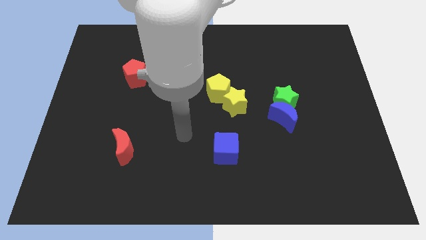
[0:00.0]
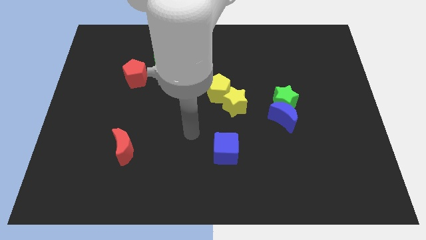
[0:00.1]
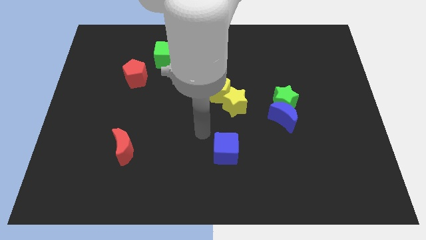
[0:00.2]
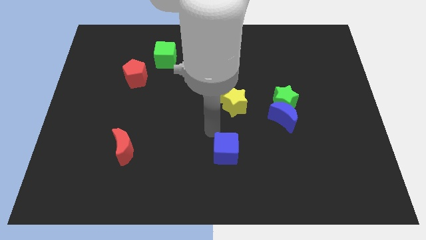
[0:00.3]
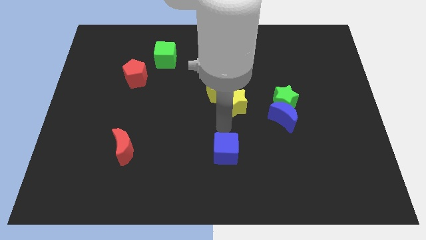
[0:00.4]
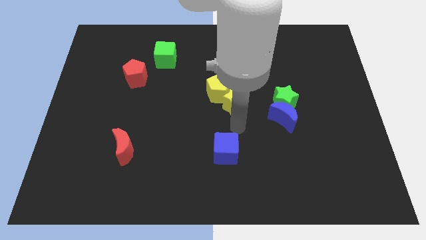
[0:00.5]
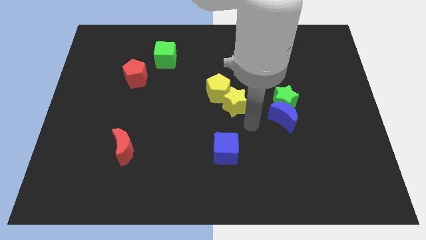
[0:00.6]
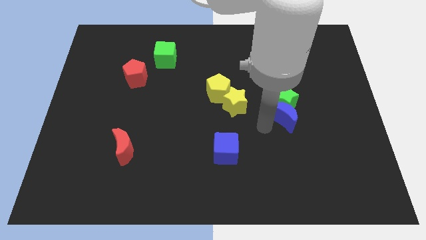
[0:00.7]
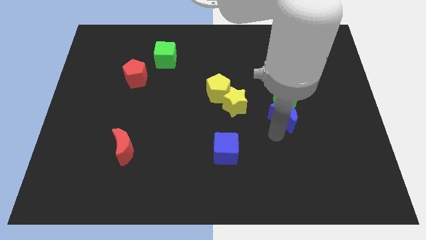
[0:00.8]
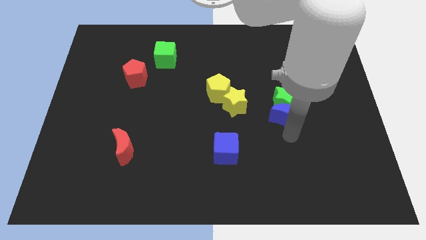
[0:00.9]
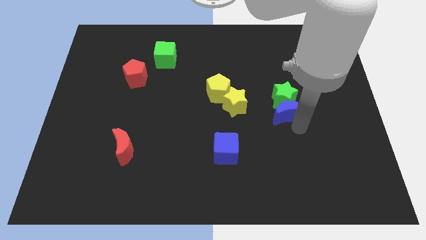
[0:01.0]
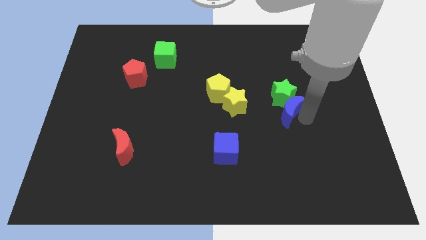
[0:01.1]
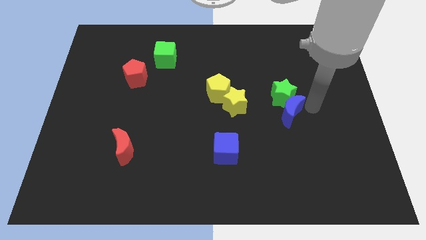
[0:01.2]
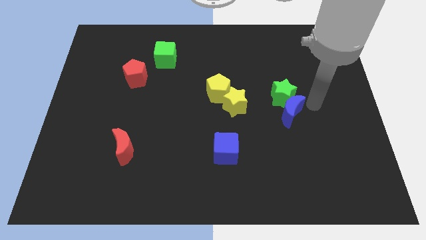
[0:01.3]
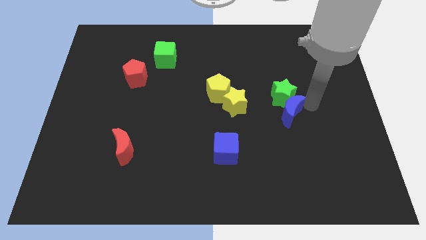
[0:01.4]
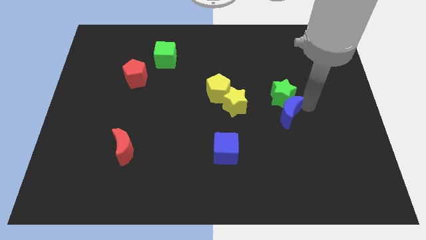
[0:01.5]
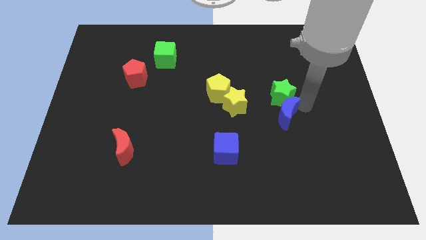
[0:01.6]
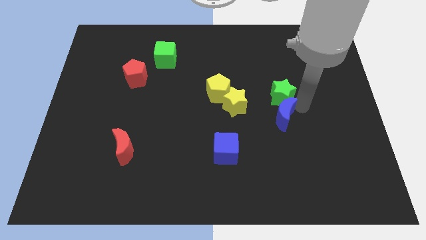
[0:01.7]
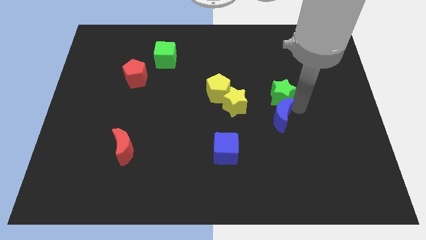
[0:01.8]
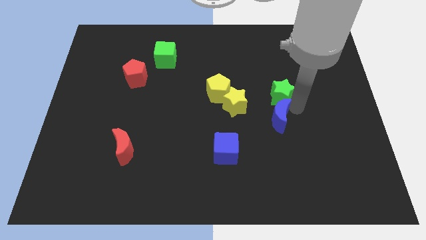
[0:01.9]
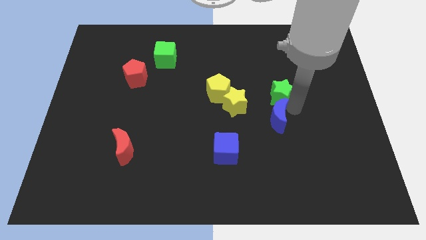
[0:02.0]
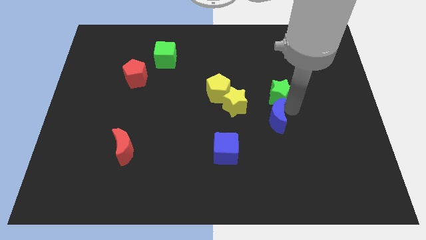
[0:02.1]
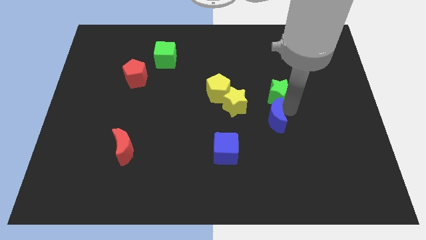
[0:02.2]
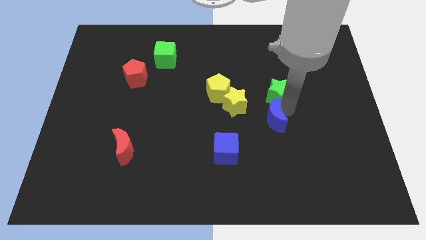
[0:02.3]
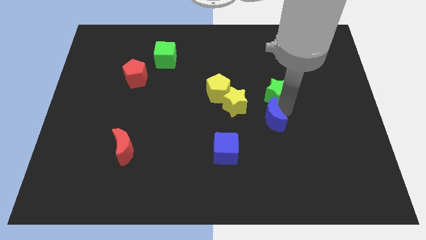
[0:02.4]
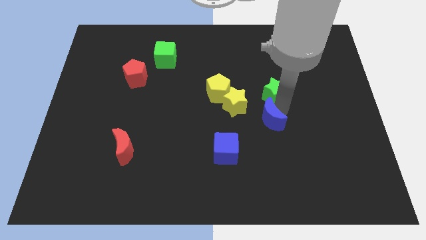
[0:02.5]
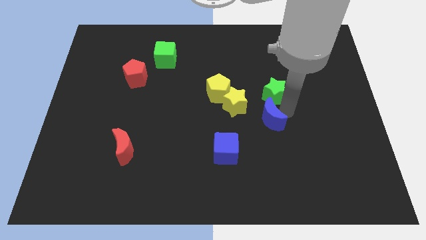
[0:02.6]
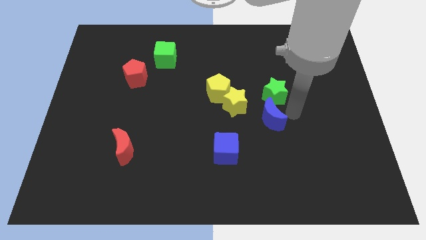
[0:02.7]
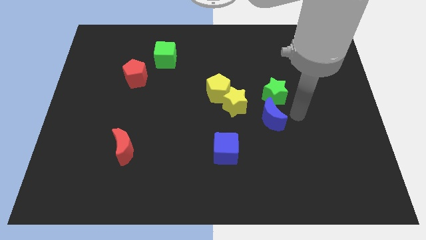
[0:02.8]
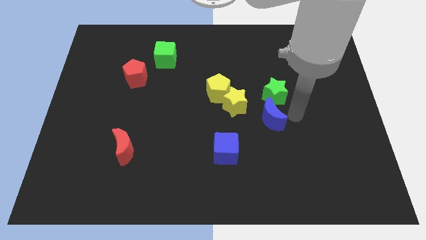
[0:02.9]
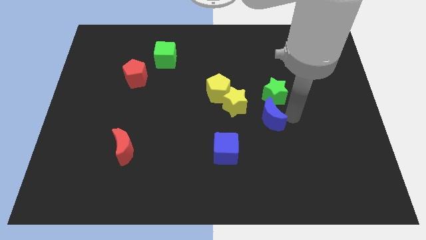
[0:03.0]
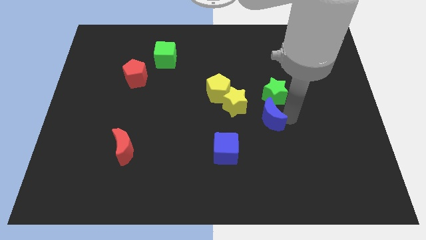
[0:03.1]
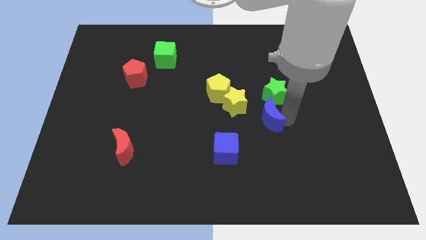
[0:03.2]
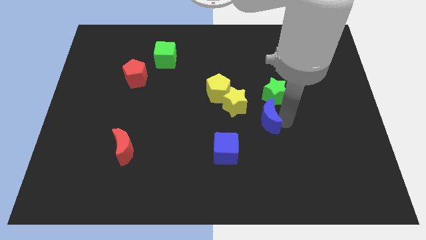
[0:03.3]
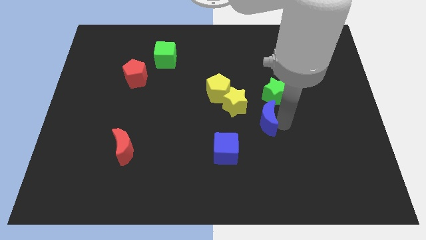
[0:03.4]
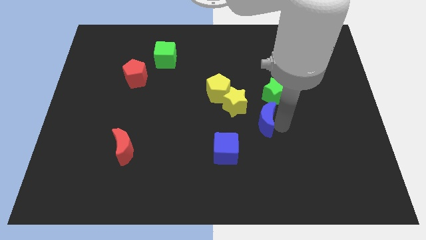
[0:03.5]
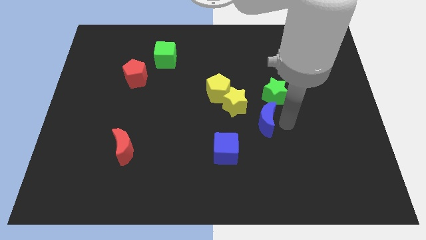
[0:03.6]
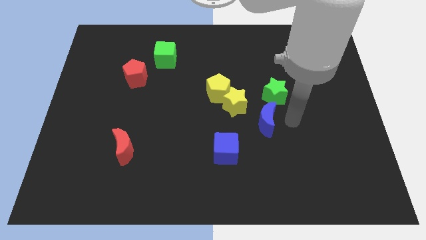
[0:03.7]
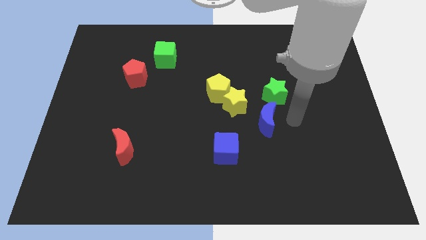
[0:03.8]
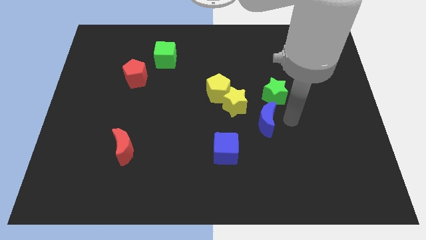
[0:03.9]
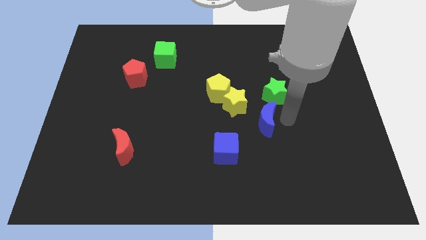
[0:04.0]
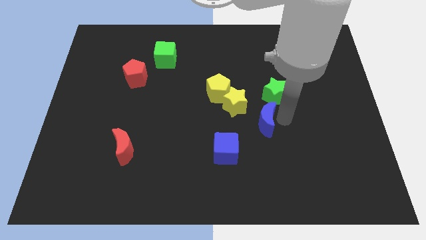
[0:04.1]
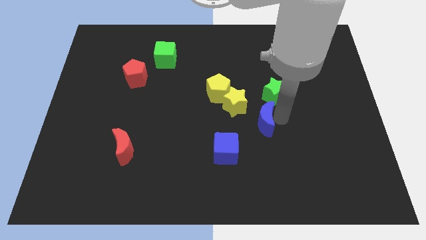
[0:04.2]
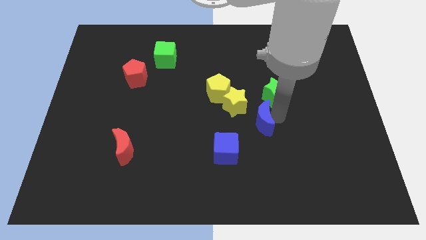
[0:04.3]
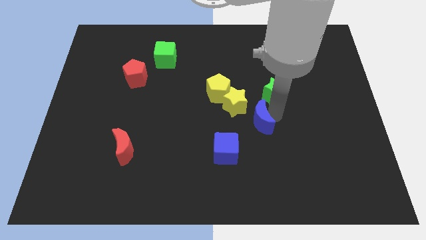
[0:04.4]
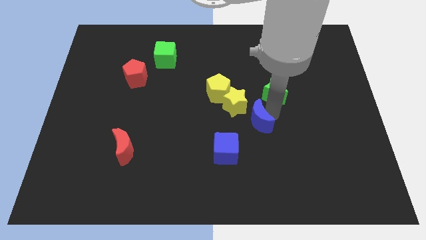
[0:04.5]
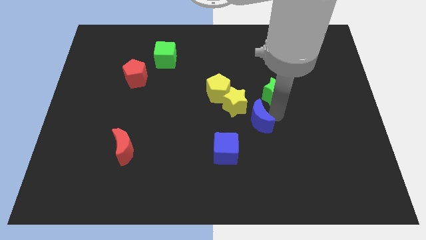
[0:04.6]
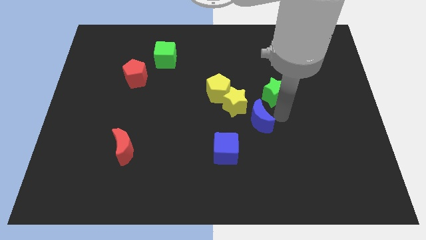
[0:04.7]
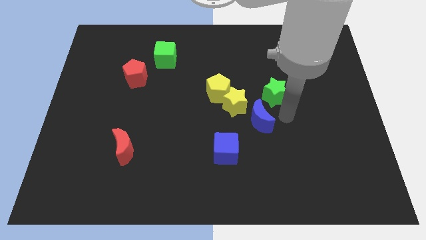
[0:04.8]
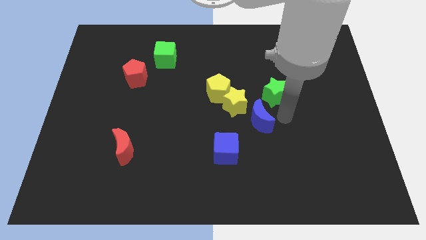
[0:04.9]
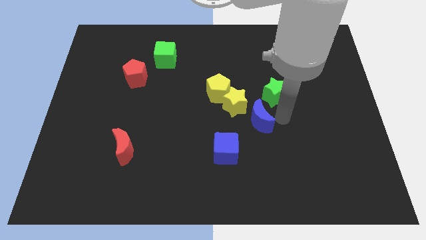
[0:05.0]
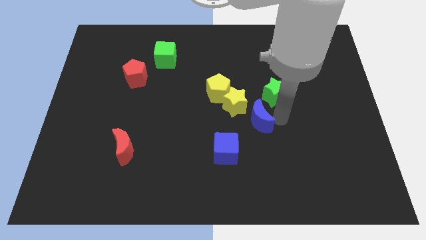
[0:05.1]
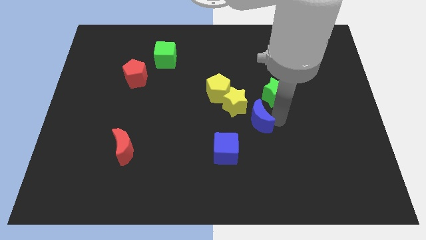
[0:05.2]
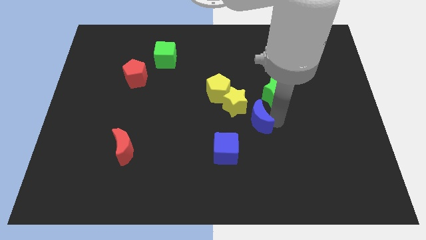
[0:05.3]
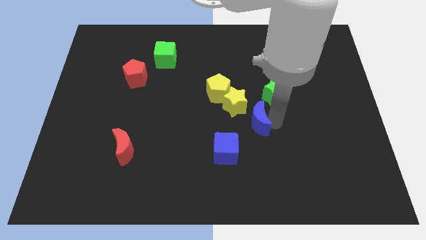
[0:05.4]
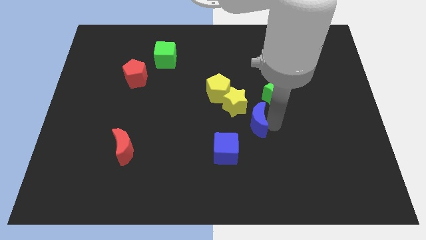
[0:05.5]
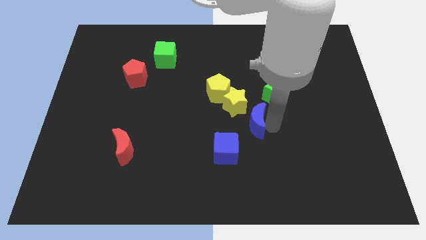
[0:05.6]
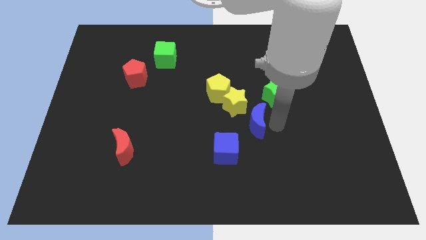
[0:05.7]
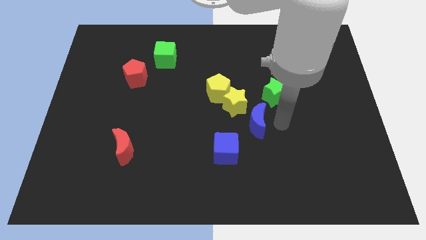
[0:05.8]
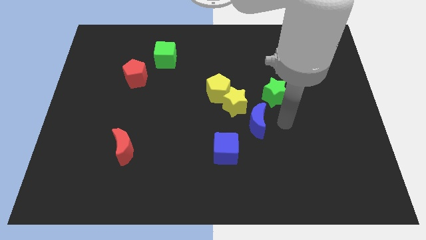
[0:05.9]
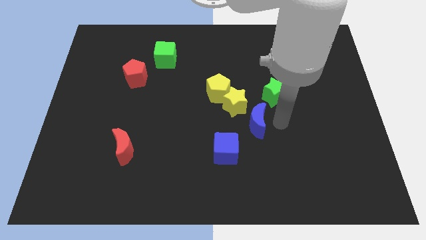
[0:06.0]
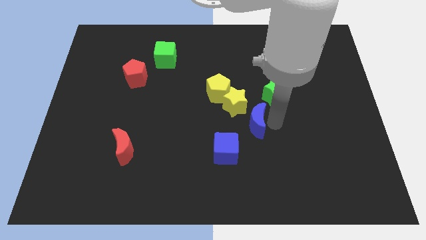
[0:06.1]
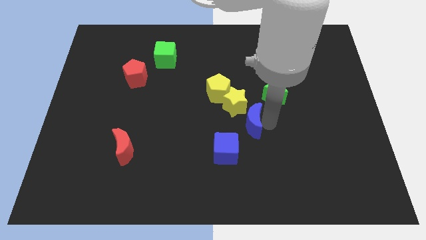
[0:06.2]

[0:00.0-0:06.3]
slightly push the blue moon to the left

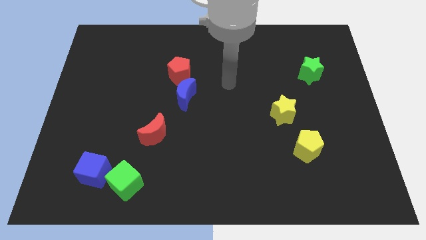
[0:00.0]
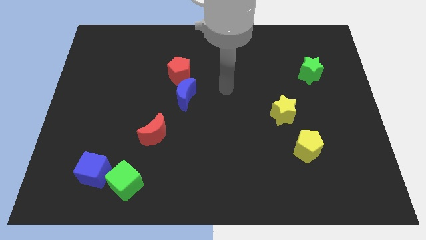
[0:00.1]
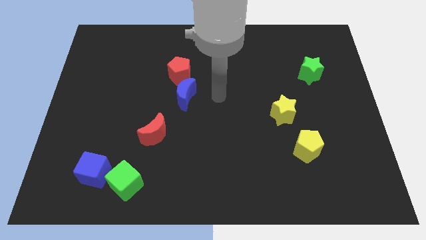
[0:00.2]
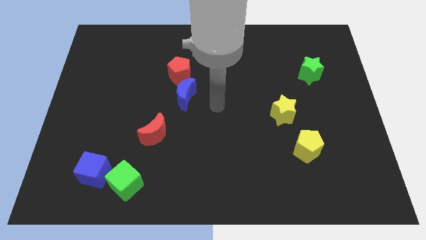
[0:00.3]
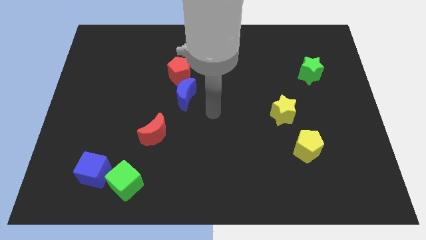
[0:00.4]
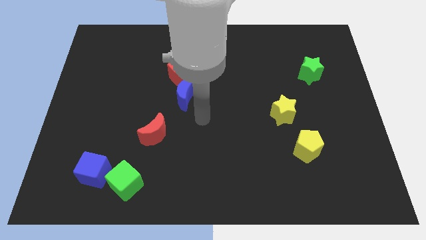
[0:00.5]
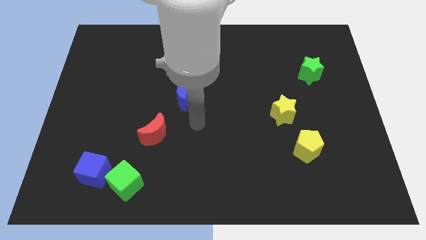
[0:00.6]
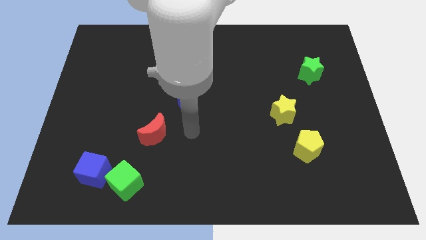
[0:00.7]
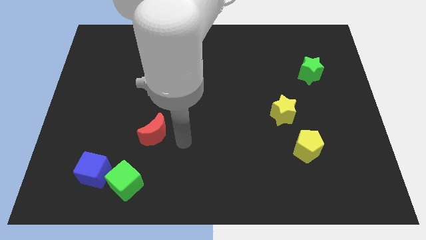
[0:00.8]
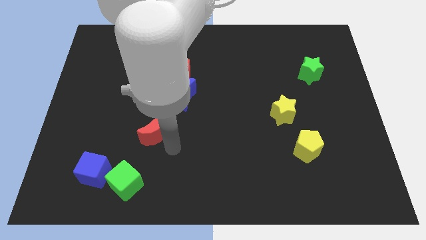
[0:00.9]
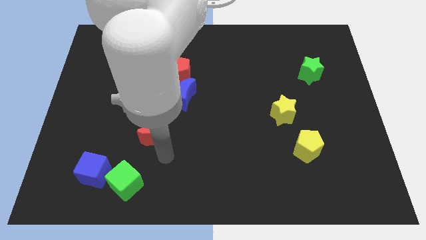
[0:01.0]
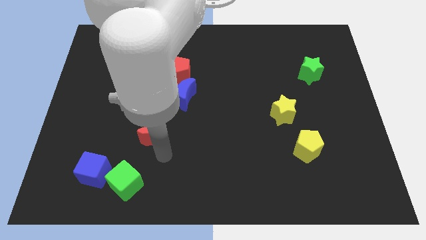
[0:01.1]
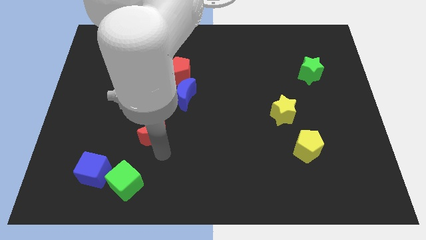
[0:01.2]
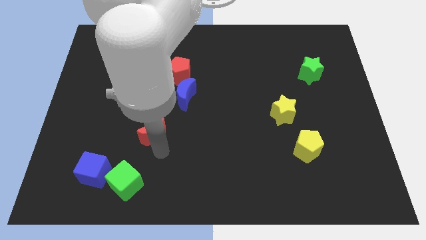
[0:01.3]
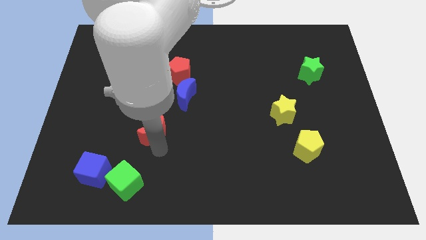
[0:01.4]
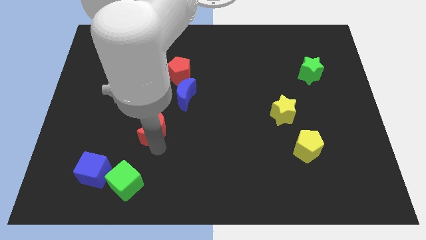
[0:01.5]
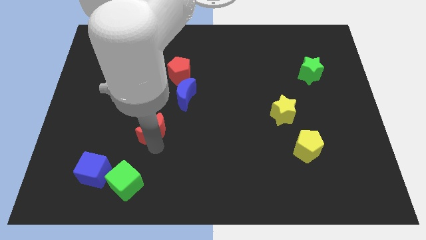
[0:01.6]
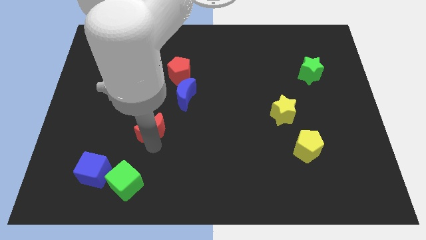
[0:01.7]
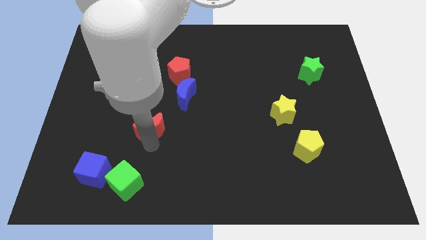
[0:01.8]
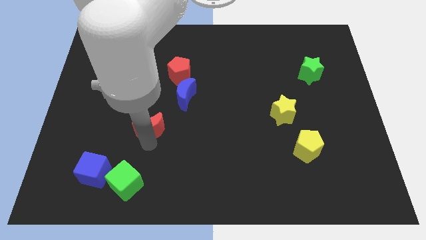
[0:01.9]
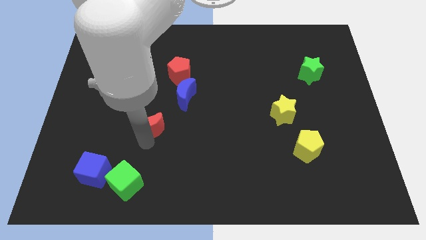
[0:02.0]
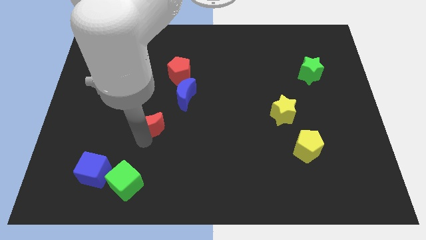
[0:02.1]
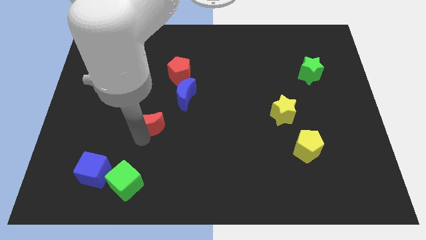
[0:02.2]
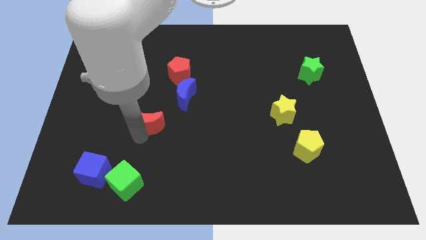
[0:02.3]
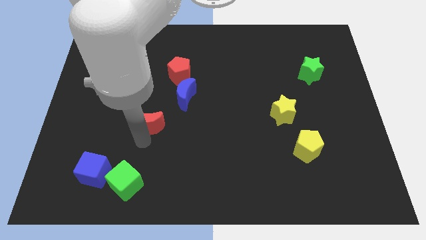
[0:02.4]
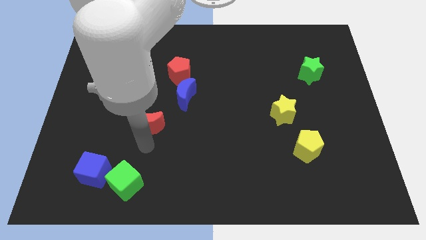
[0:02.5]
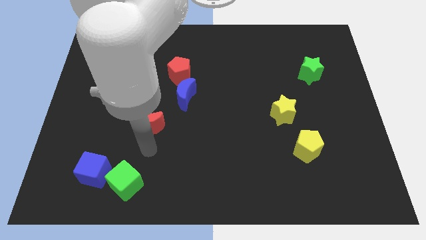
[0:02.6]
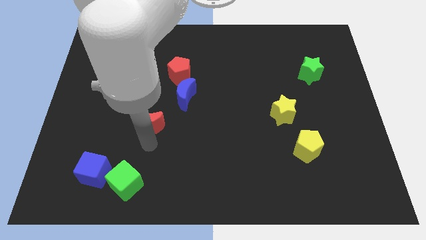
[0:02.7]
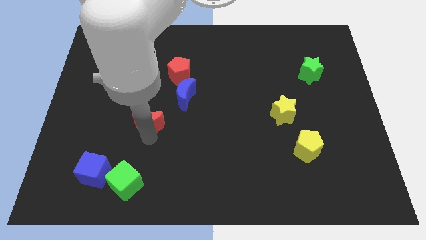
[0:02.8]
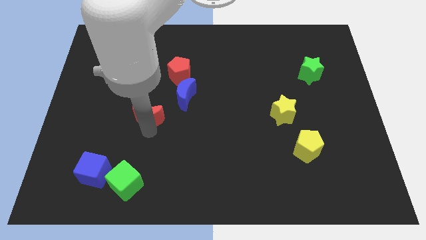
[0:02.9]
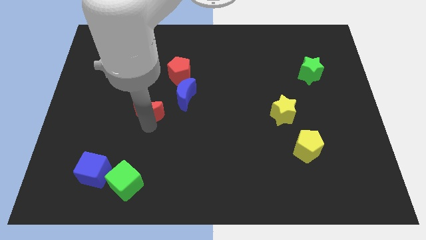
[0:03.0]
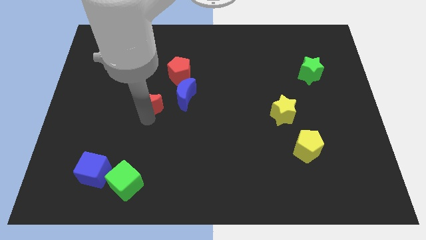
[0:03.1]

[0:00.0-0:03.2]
slightly push the red moon up
